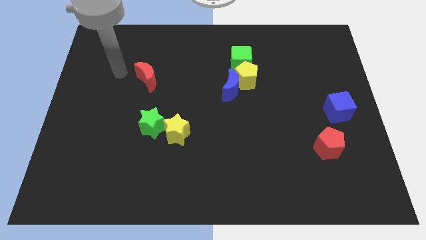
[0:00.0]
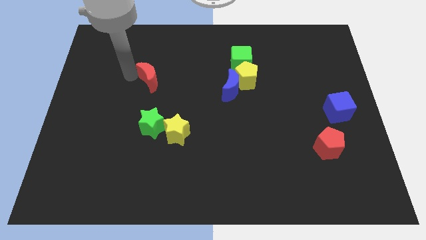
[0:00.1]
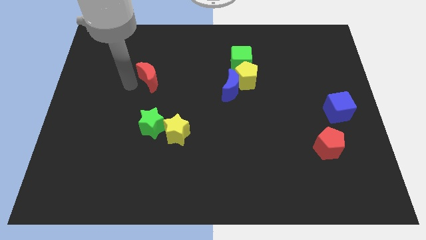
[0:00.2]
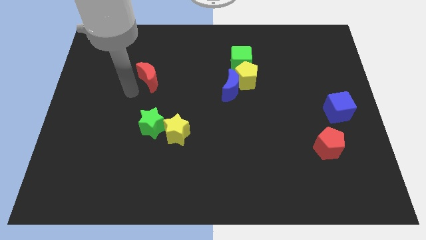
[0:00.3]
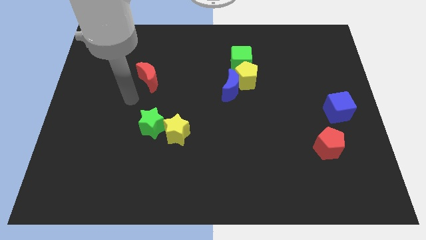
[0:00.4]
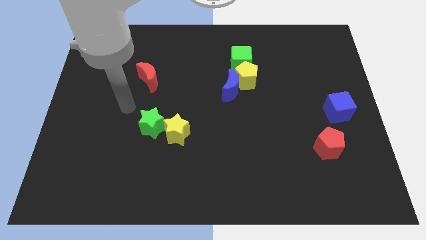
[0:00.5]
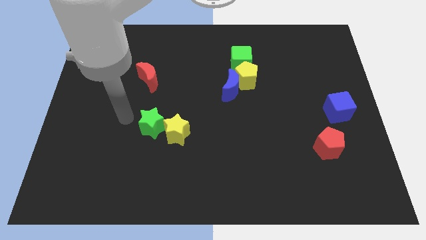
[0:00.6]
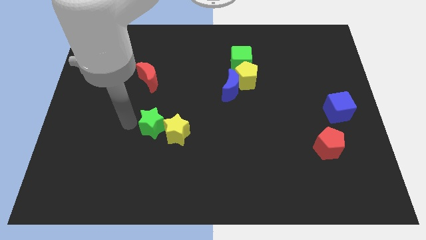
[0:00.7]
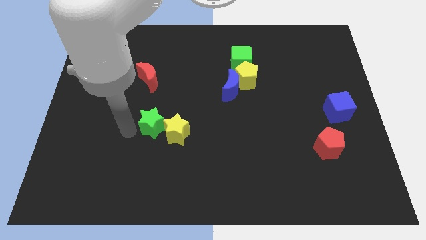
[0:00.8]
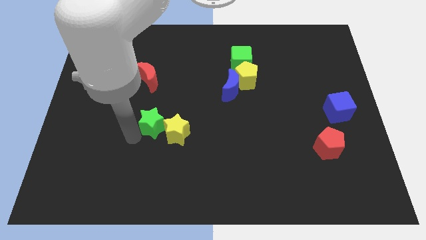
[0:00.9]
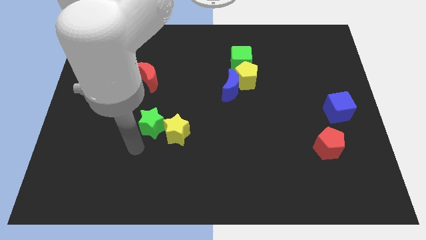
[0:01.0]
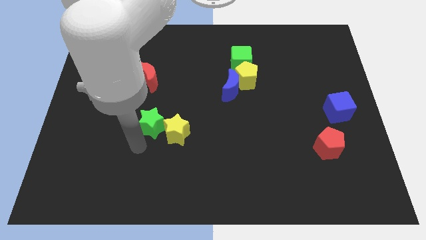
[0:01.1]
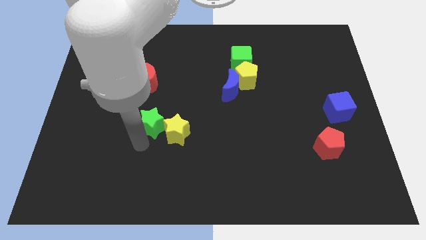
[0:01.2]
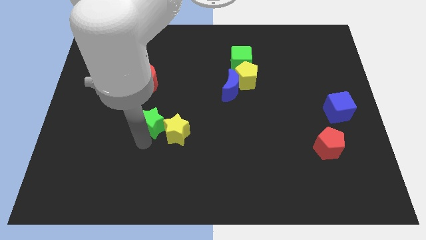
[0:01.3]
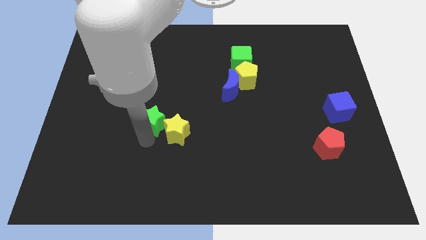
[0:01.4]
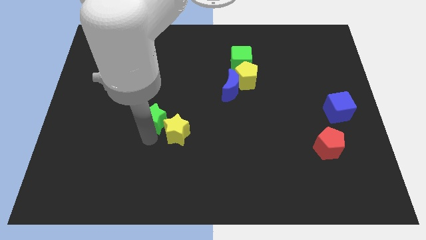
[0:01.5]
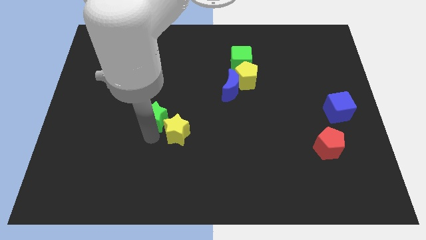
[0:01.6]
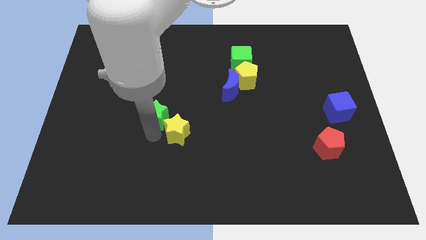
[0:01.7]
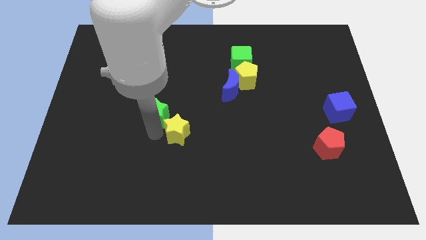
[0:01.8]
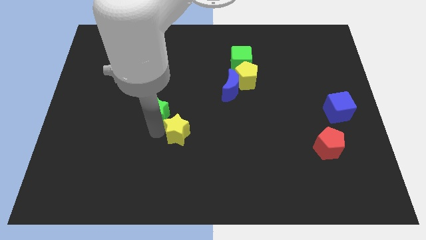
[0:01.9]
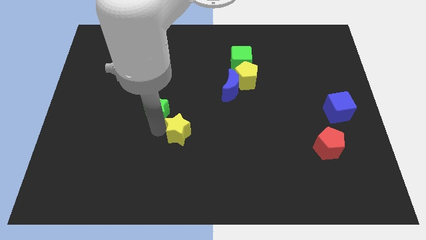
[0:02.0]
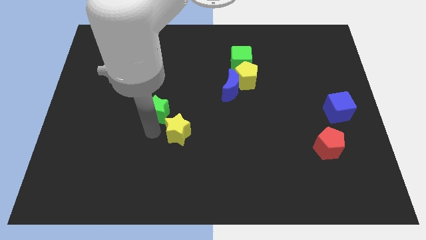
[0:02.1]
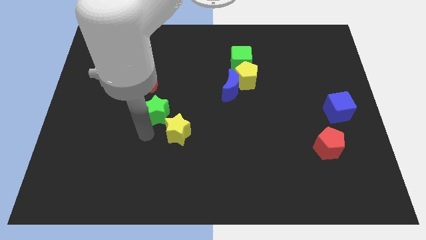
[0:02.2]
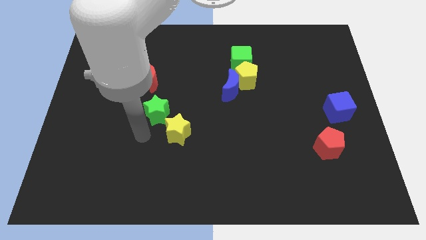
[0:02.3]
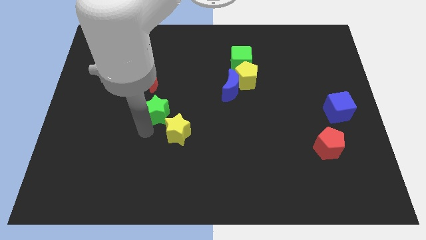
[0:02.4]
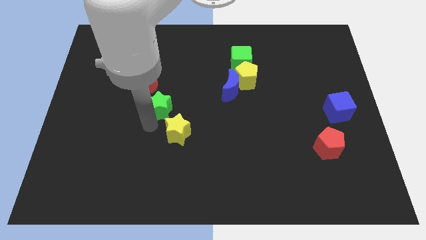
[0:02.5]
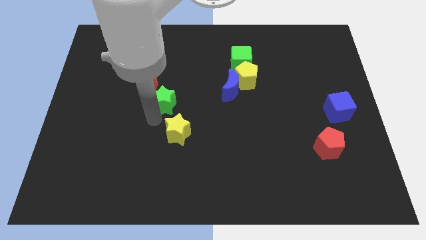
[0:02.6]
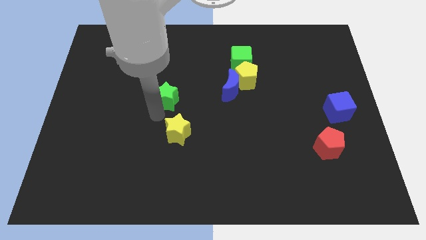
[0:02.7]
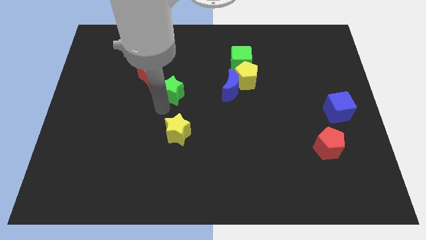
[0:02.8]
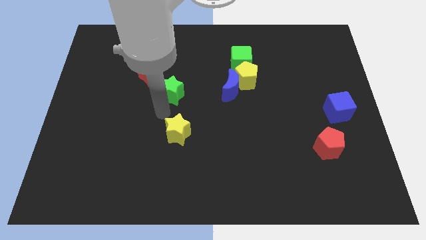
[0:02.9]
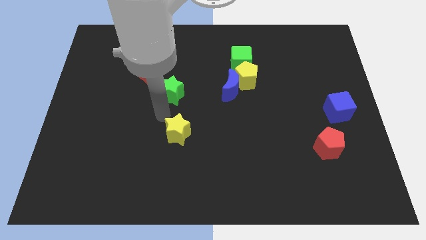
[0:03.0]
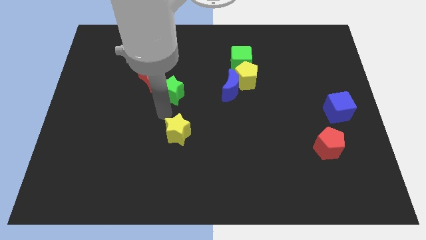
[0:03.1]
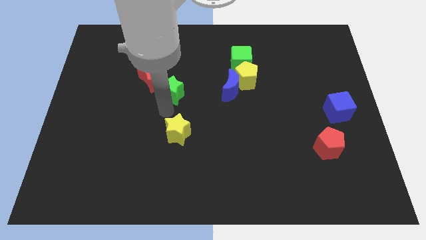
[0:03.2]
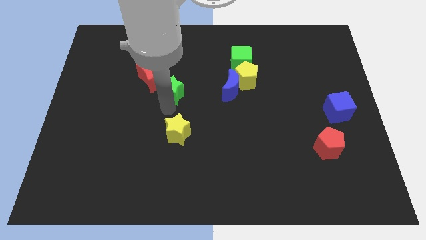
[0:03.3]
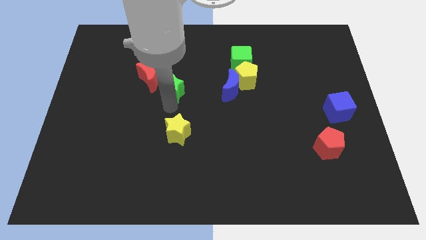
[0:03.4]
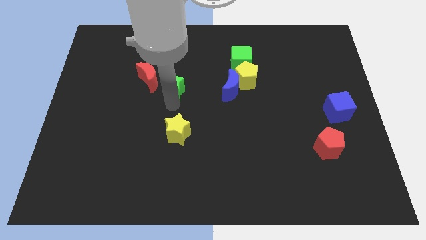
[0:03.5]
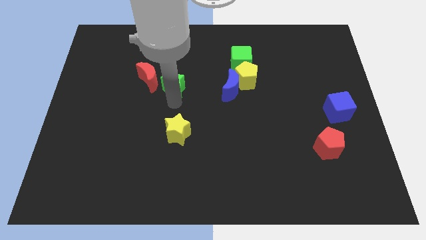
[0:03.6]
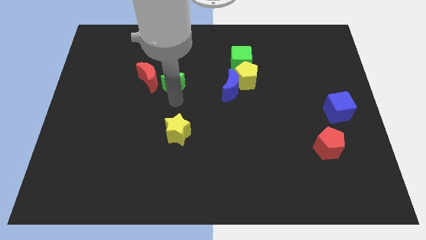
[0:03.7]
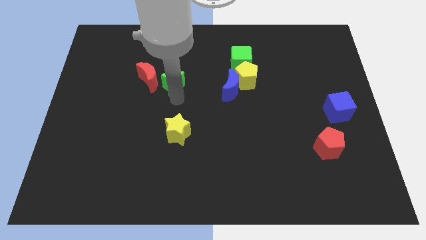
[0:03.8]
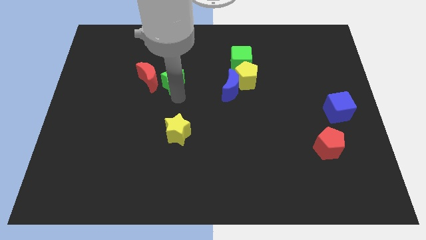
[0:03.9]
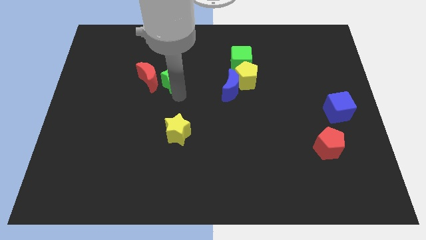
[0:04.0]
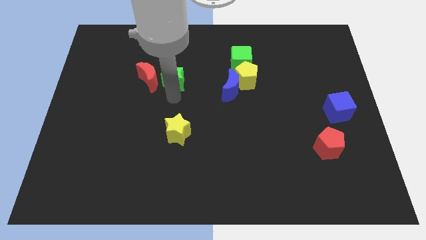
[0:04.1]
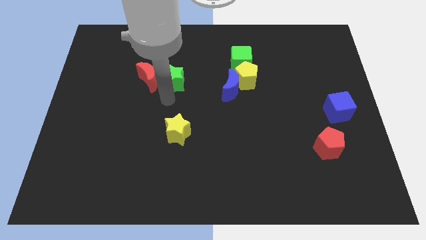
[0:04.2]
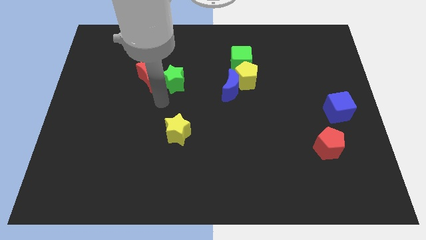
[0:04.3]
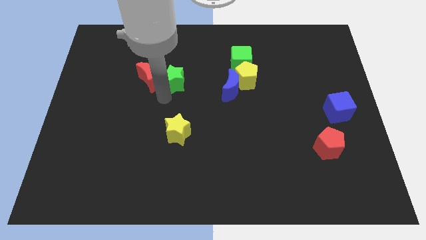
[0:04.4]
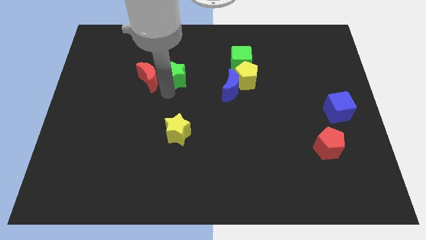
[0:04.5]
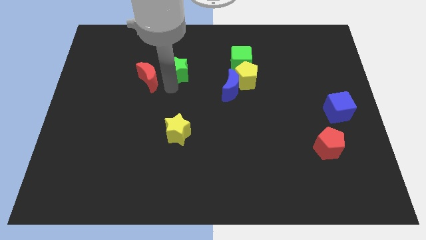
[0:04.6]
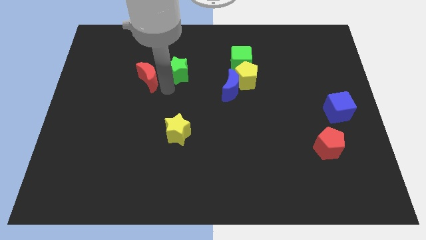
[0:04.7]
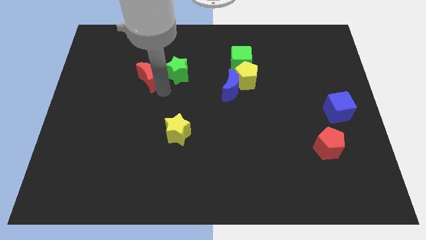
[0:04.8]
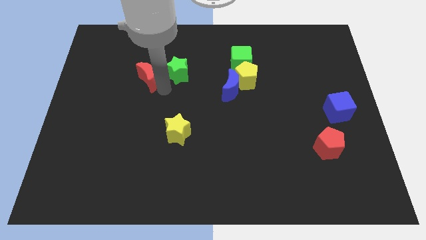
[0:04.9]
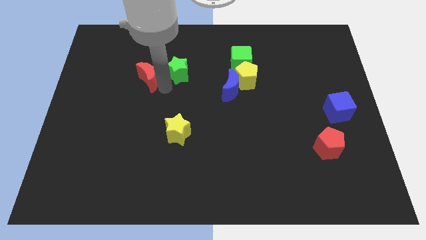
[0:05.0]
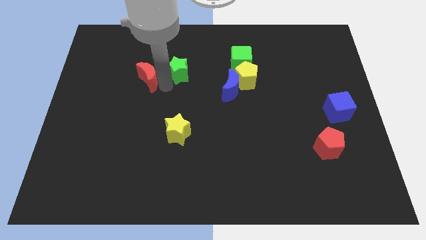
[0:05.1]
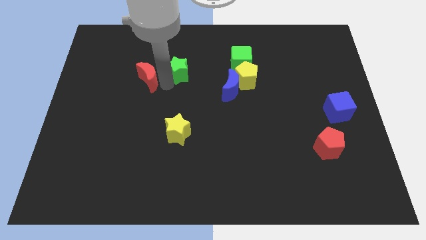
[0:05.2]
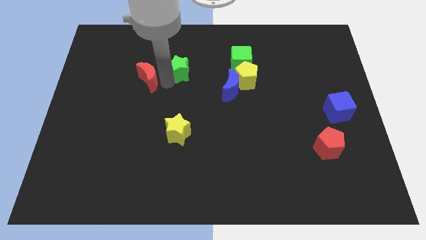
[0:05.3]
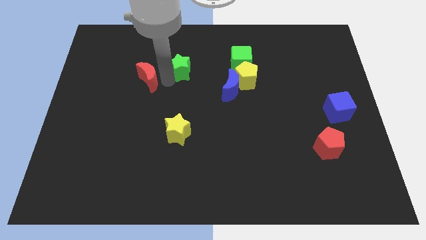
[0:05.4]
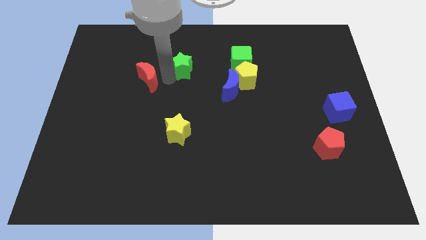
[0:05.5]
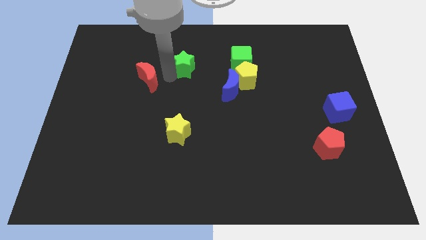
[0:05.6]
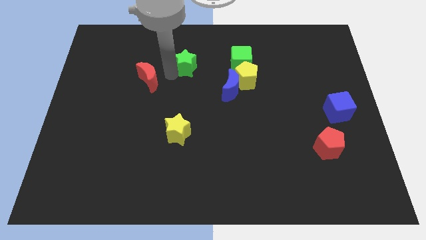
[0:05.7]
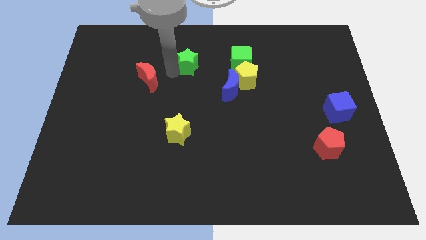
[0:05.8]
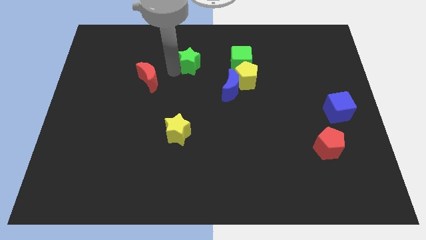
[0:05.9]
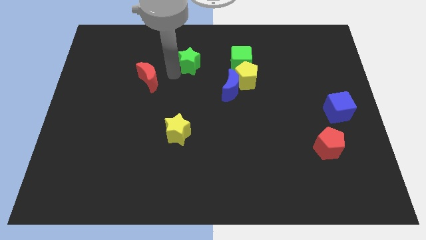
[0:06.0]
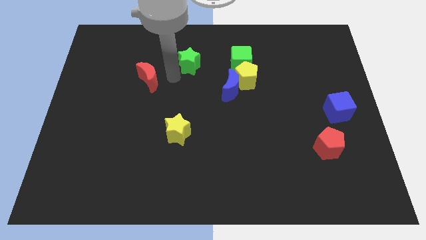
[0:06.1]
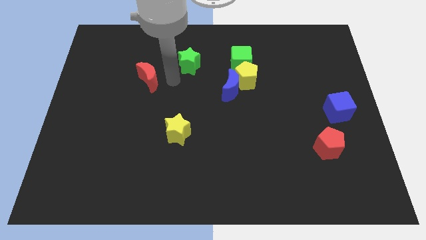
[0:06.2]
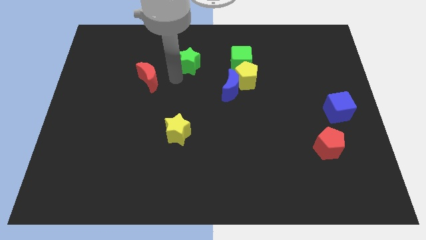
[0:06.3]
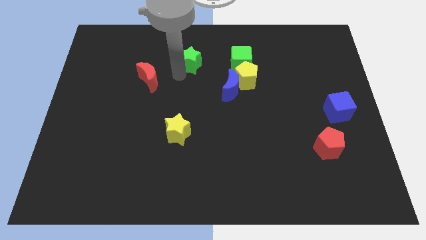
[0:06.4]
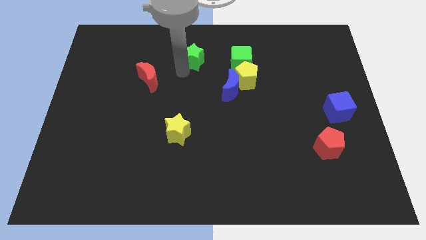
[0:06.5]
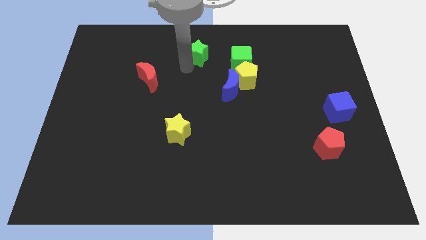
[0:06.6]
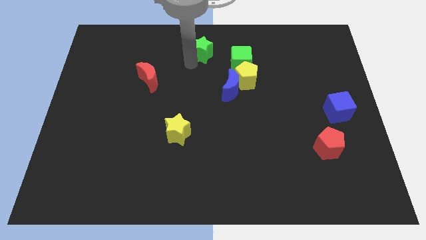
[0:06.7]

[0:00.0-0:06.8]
slide the green star to the top side
